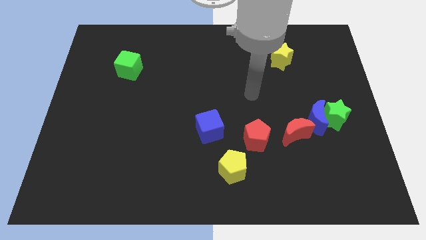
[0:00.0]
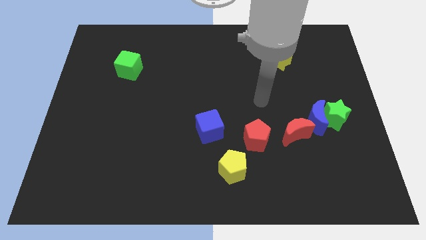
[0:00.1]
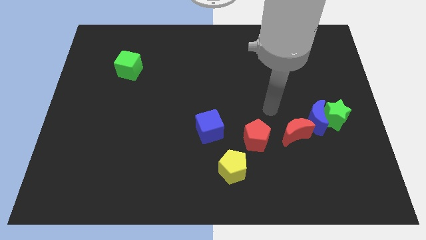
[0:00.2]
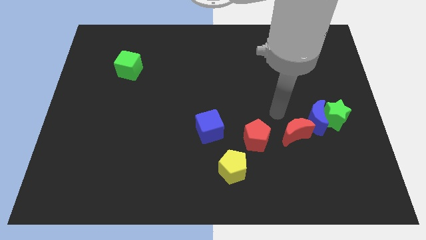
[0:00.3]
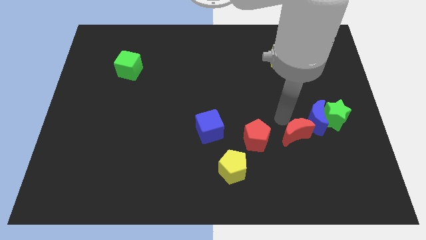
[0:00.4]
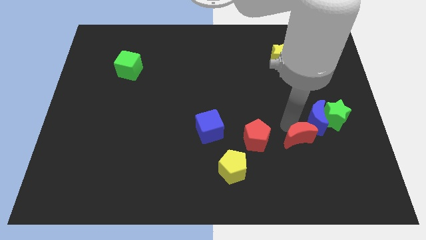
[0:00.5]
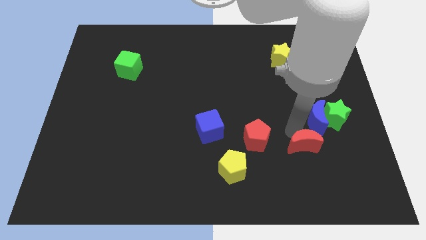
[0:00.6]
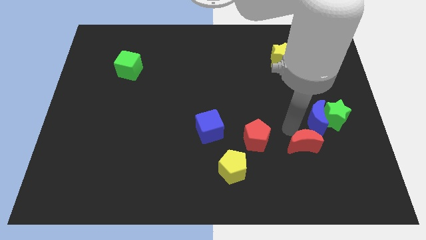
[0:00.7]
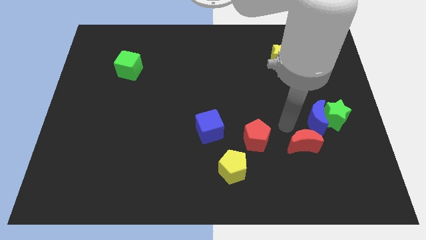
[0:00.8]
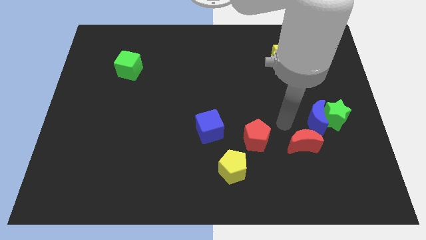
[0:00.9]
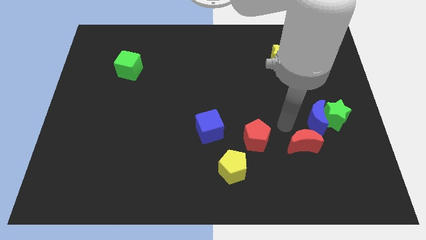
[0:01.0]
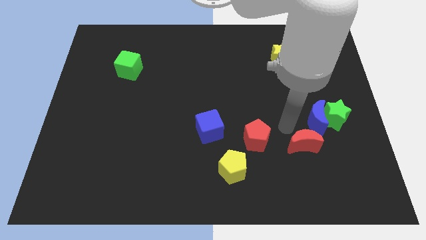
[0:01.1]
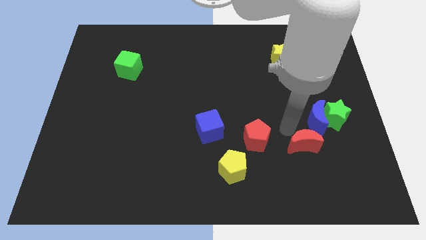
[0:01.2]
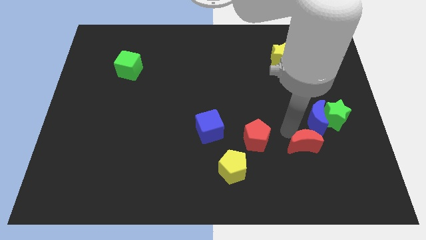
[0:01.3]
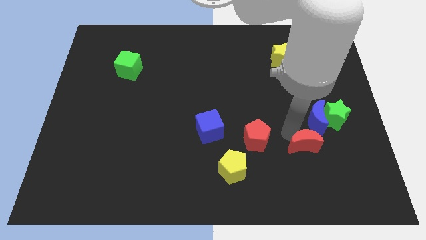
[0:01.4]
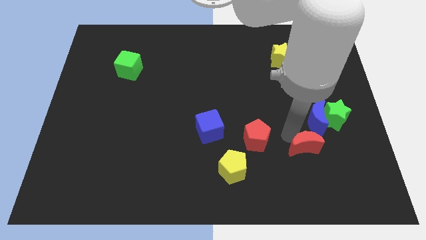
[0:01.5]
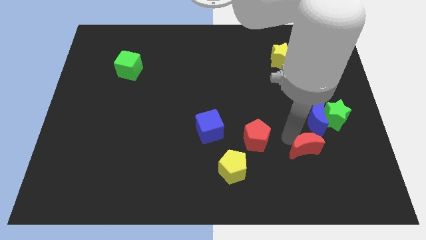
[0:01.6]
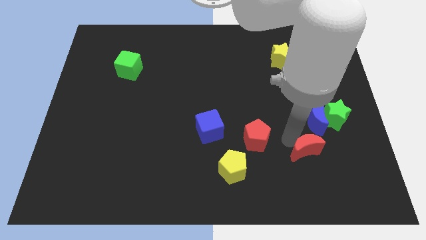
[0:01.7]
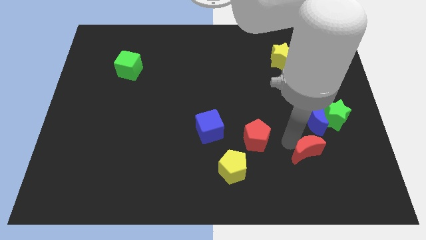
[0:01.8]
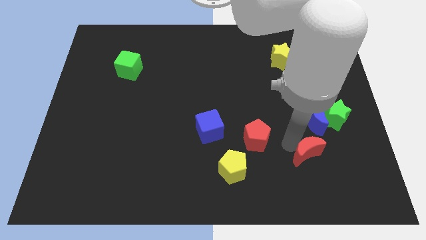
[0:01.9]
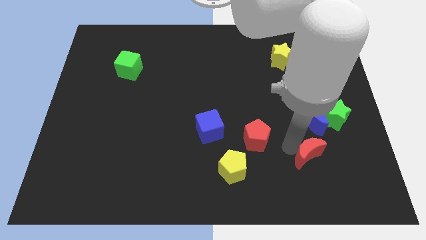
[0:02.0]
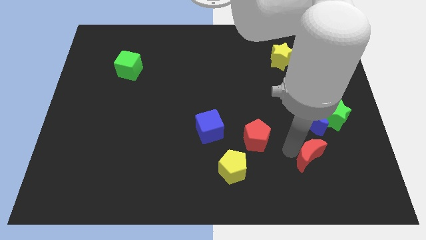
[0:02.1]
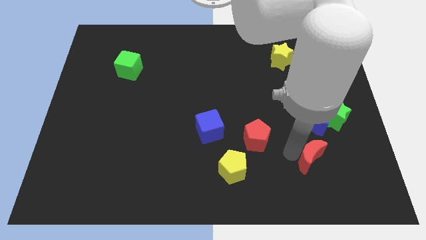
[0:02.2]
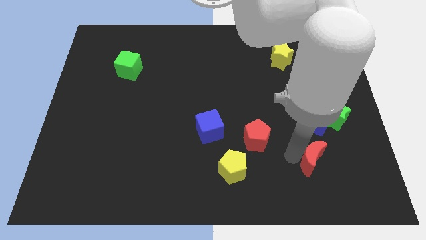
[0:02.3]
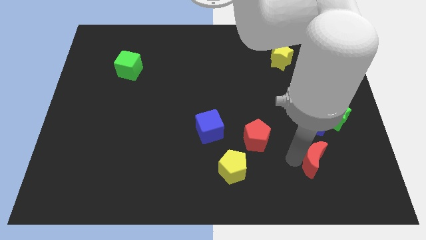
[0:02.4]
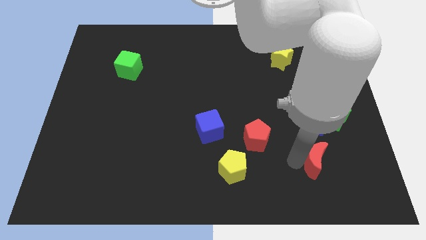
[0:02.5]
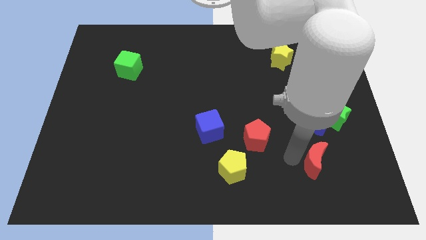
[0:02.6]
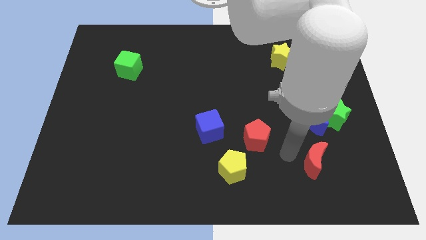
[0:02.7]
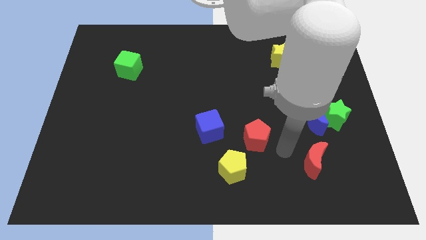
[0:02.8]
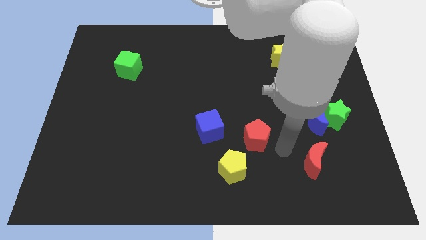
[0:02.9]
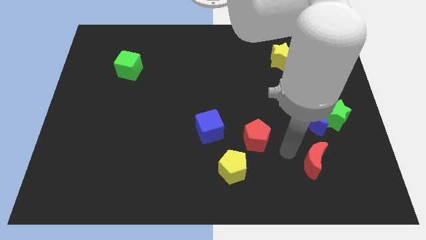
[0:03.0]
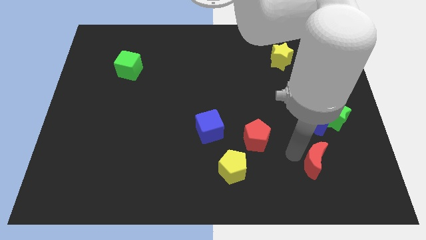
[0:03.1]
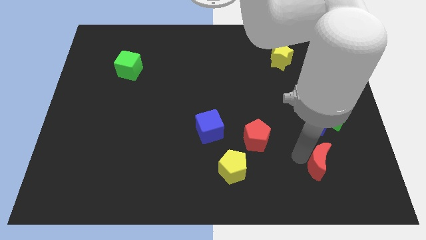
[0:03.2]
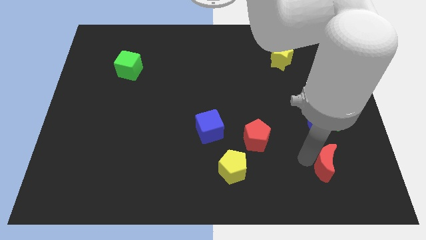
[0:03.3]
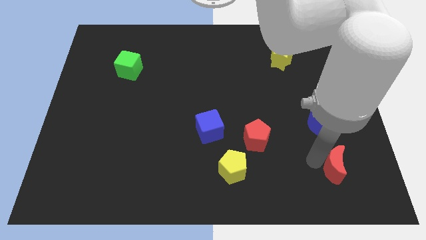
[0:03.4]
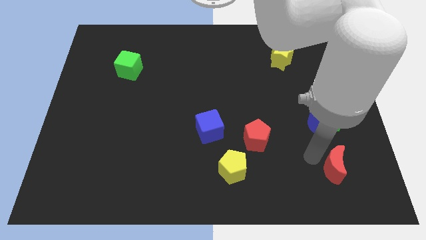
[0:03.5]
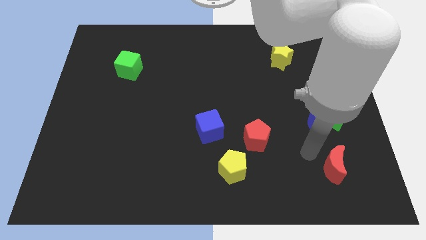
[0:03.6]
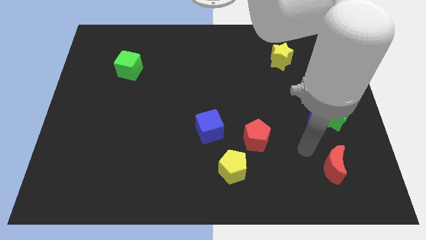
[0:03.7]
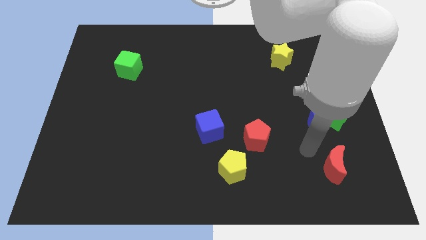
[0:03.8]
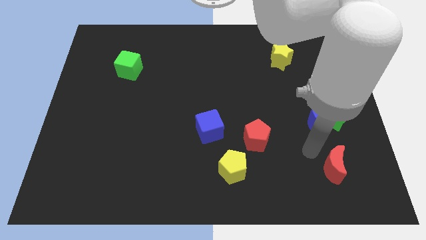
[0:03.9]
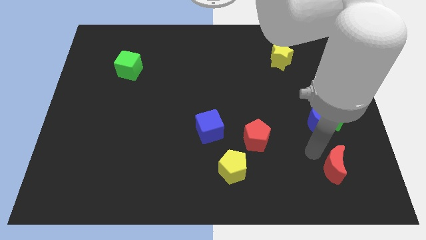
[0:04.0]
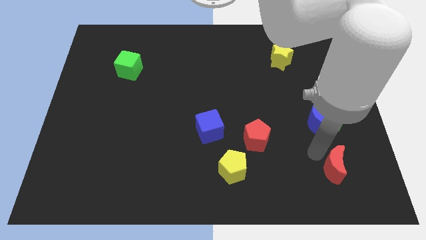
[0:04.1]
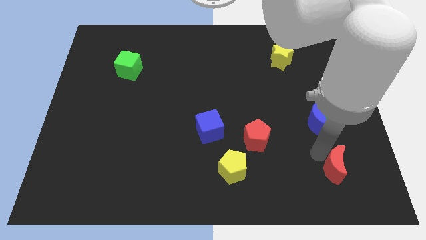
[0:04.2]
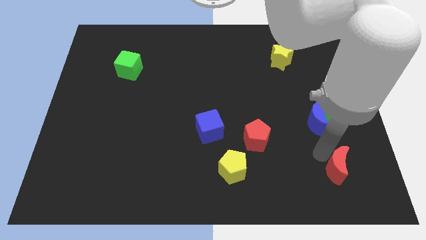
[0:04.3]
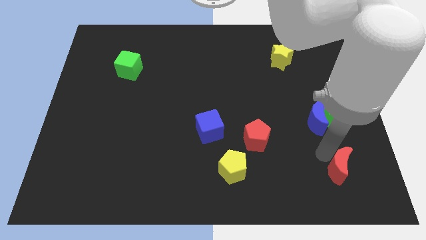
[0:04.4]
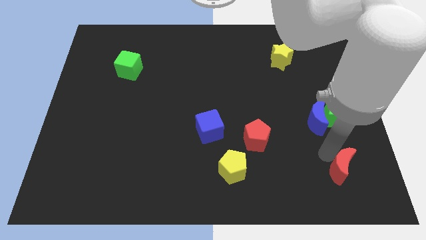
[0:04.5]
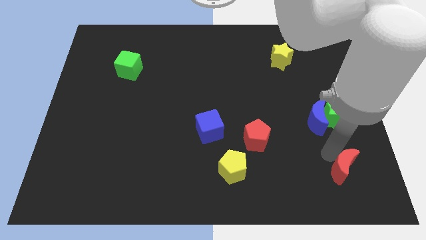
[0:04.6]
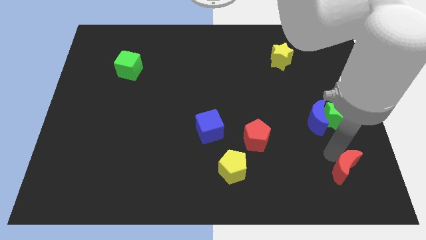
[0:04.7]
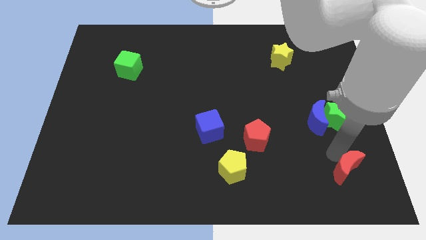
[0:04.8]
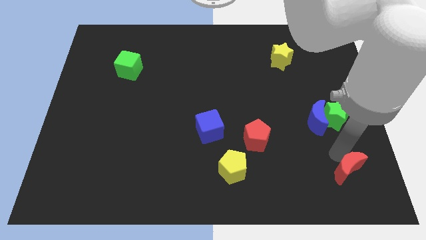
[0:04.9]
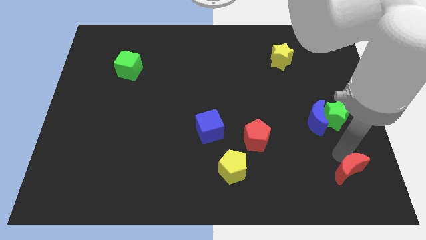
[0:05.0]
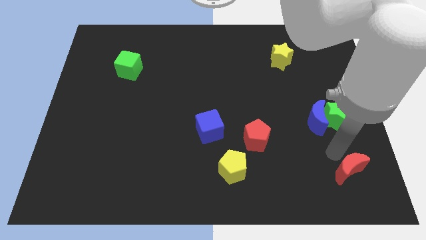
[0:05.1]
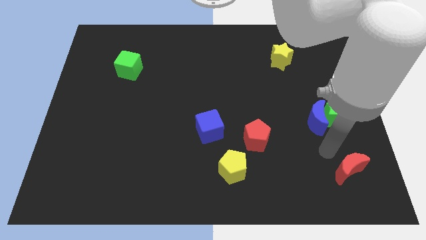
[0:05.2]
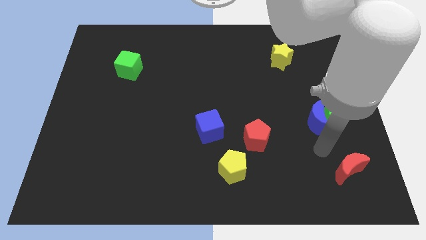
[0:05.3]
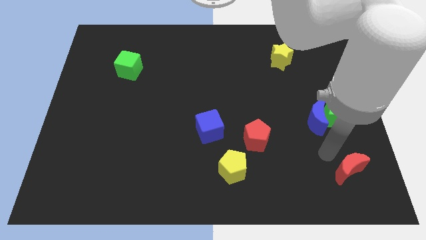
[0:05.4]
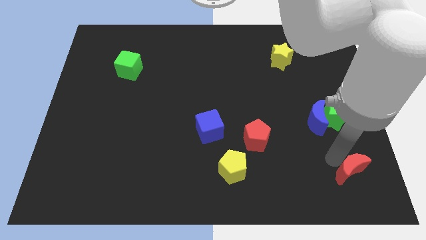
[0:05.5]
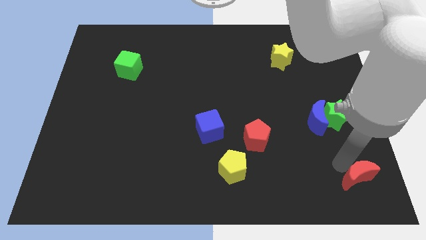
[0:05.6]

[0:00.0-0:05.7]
slide the red moon to the lower right corner
